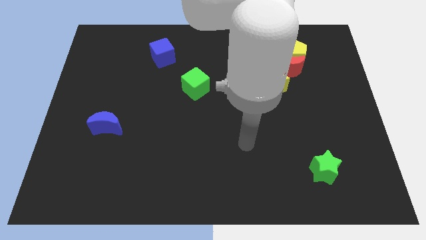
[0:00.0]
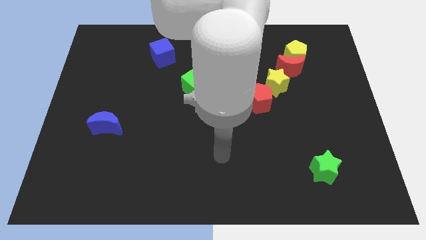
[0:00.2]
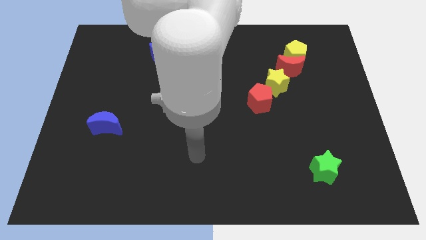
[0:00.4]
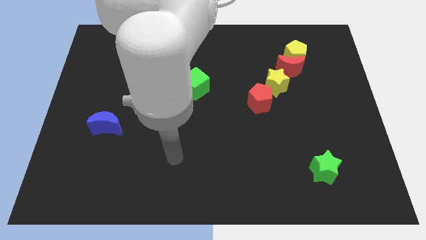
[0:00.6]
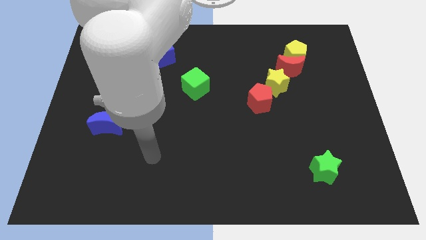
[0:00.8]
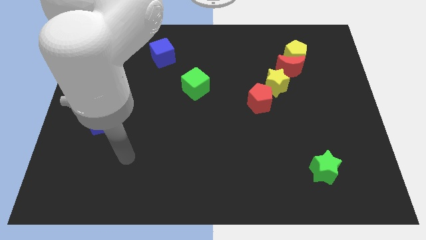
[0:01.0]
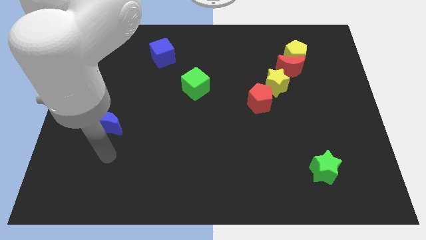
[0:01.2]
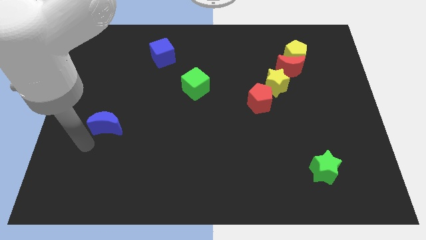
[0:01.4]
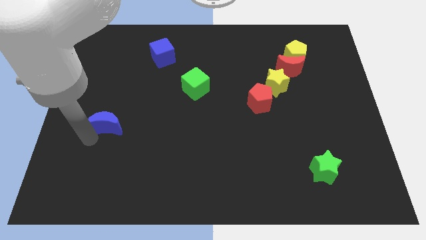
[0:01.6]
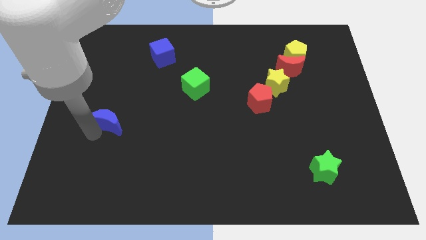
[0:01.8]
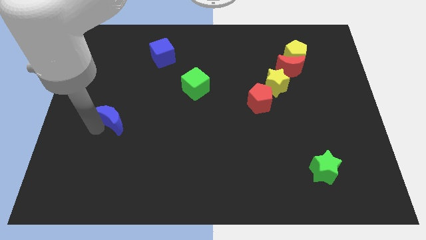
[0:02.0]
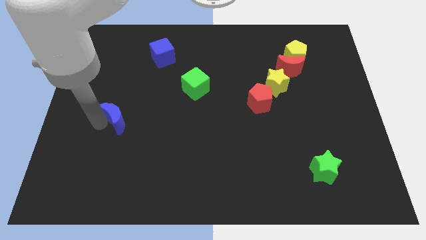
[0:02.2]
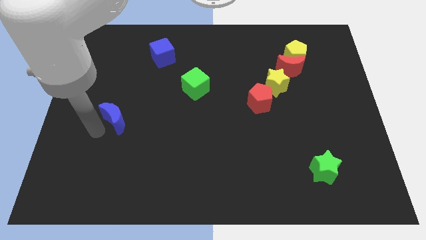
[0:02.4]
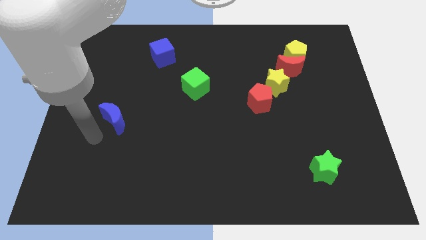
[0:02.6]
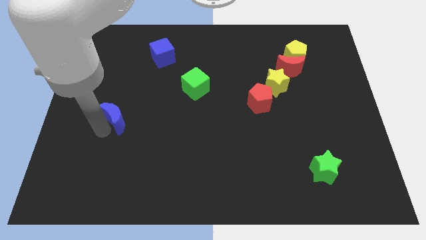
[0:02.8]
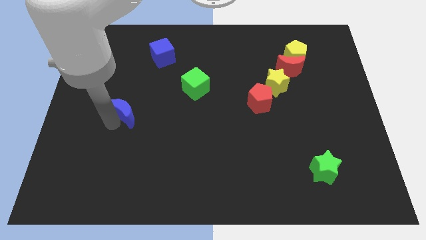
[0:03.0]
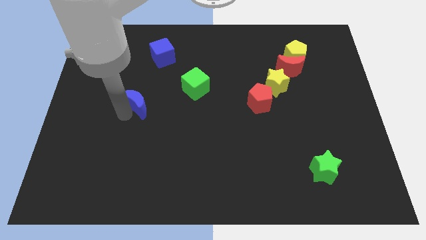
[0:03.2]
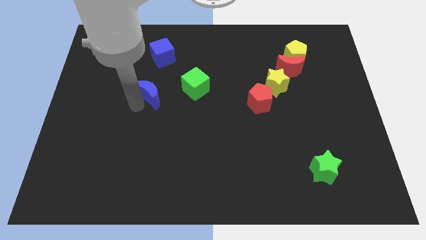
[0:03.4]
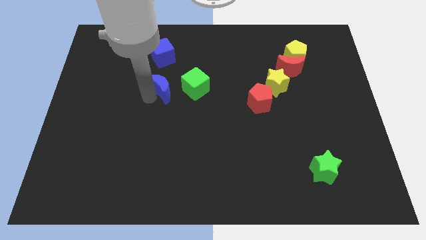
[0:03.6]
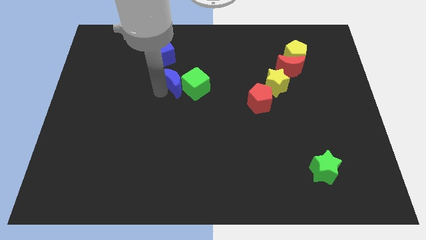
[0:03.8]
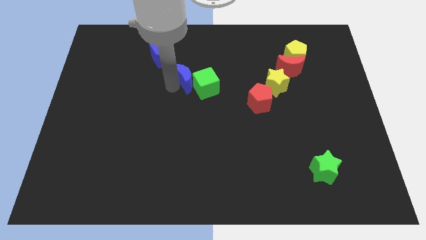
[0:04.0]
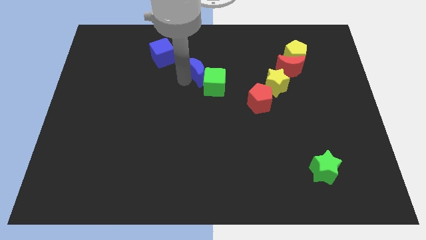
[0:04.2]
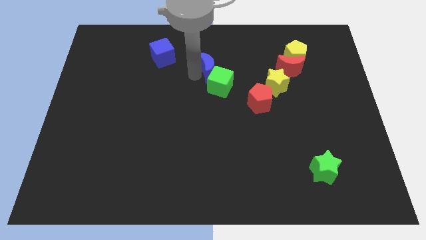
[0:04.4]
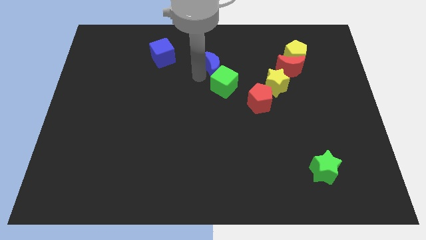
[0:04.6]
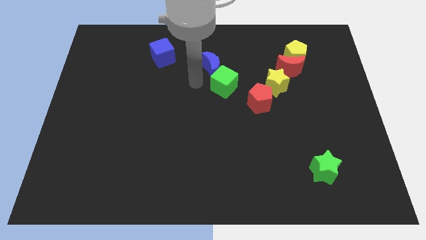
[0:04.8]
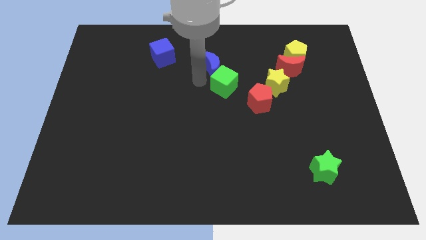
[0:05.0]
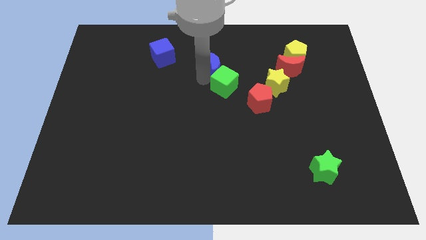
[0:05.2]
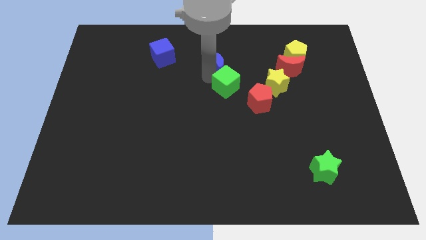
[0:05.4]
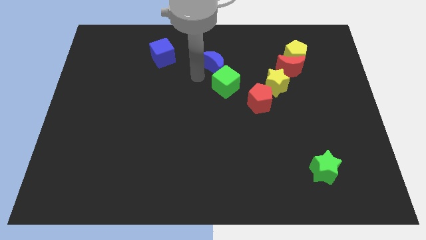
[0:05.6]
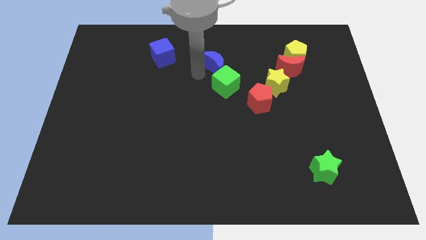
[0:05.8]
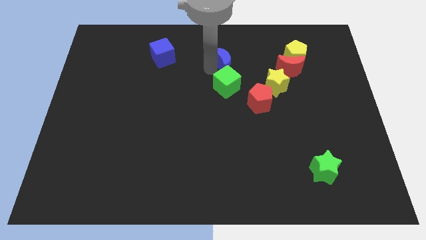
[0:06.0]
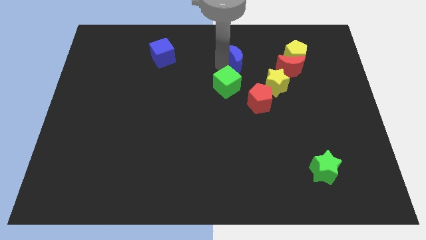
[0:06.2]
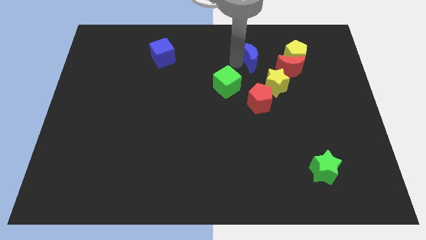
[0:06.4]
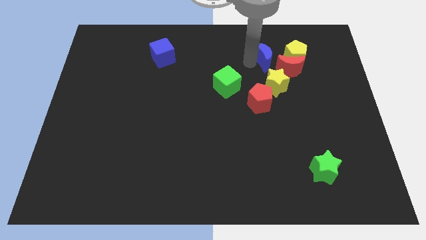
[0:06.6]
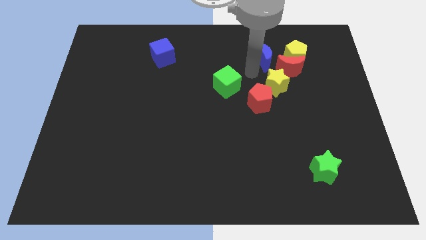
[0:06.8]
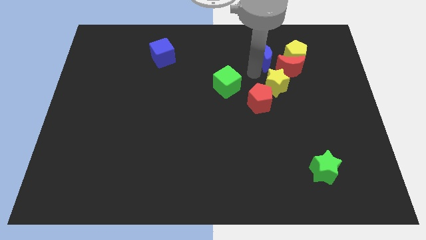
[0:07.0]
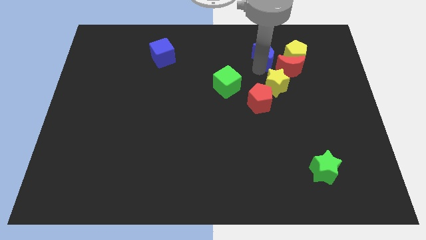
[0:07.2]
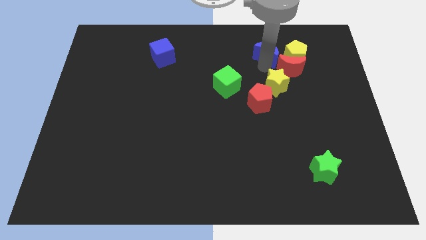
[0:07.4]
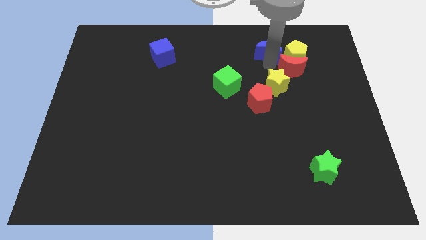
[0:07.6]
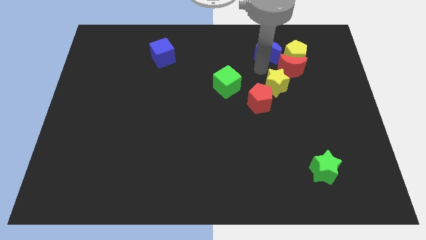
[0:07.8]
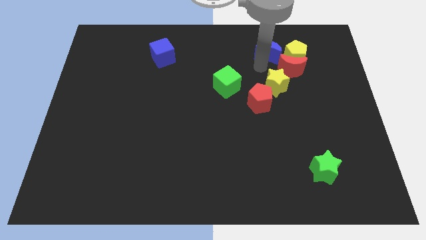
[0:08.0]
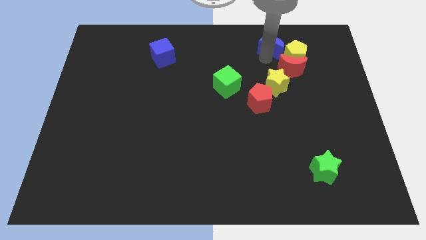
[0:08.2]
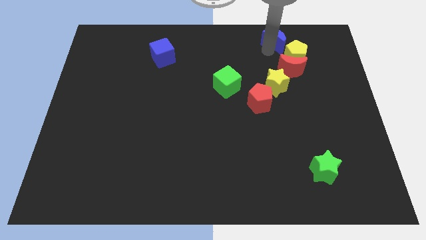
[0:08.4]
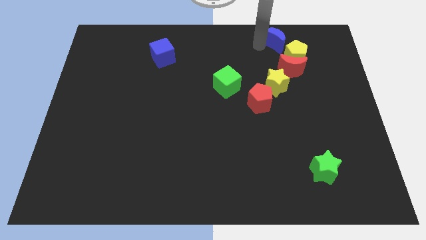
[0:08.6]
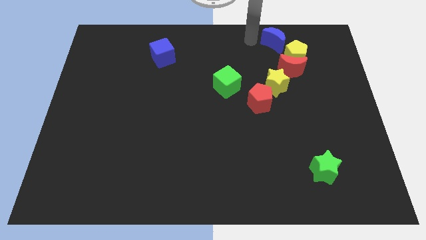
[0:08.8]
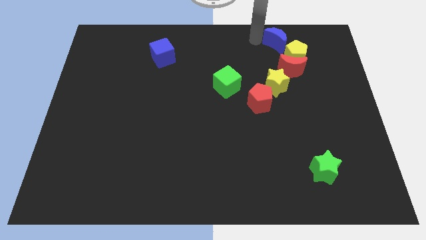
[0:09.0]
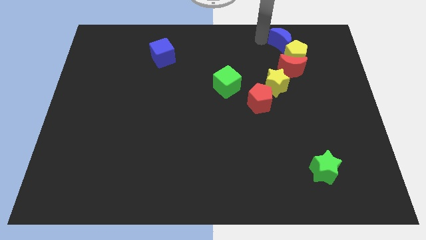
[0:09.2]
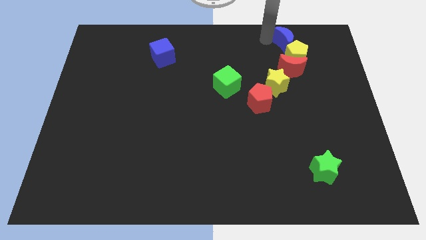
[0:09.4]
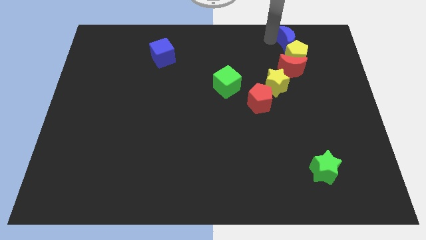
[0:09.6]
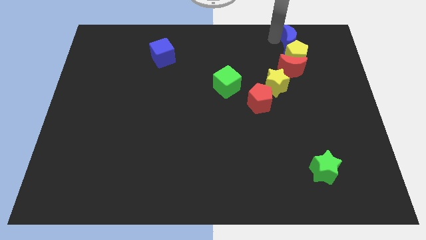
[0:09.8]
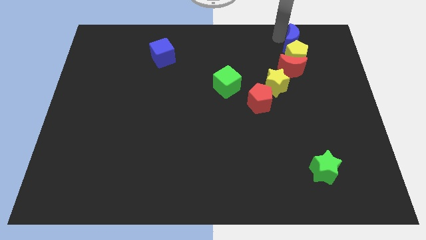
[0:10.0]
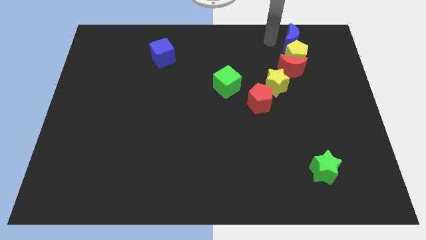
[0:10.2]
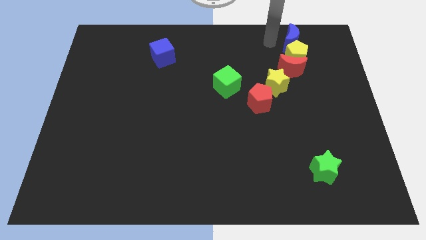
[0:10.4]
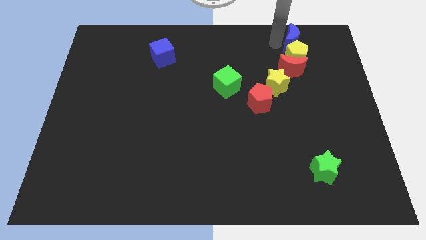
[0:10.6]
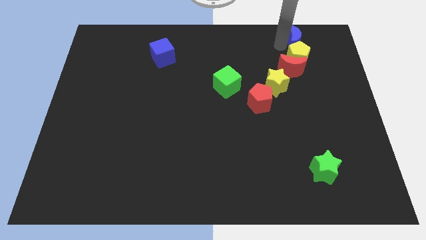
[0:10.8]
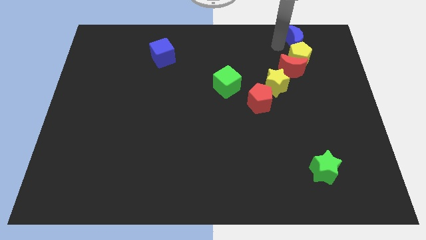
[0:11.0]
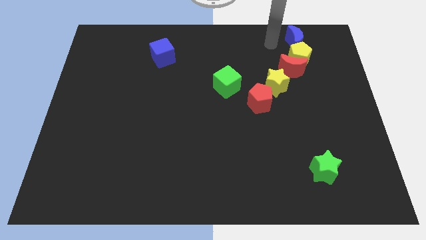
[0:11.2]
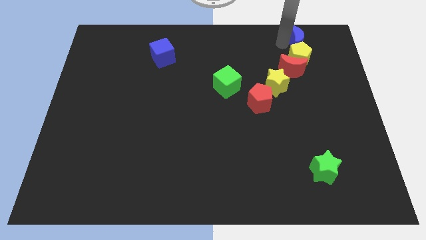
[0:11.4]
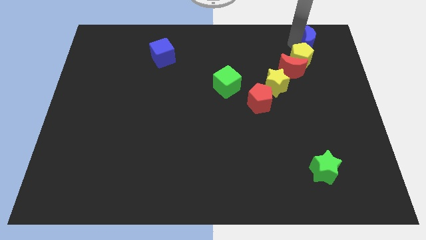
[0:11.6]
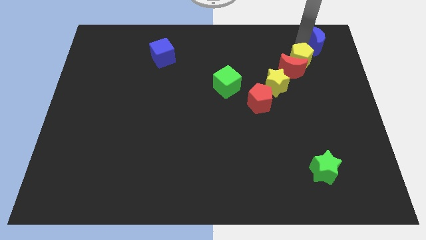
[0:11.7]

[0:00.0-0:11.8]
slide the blue moon to the top right corner

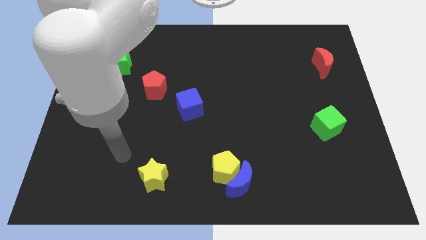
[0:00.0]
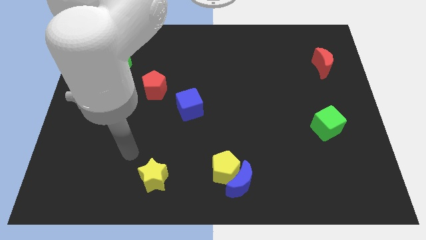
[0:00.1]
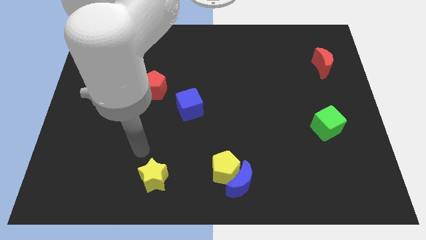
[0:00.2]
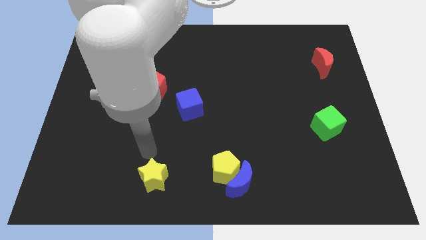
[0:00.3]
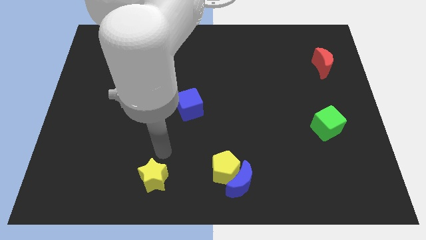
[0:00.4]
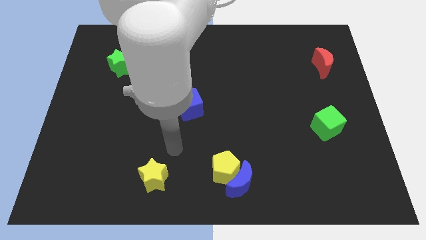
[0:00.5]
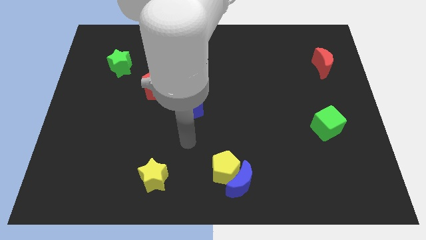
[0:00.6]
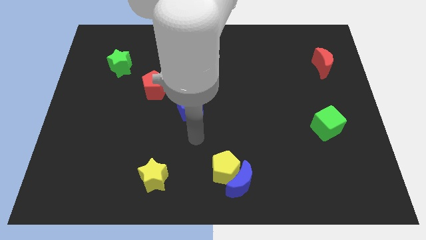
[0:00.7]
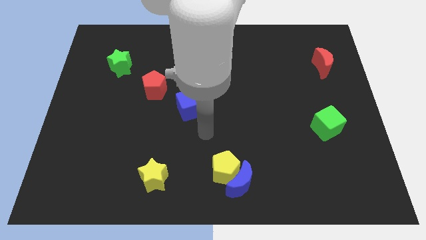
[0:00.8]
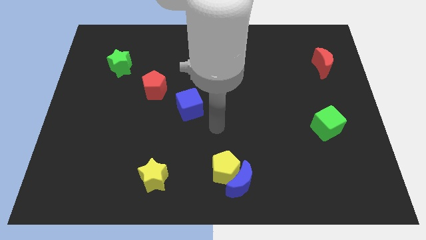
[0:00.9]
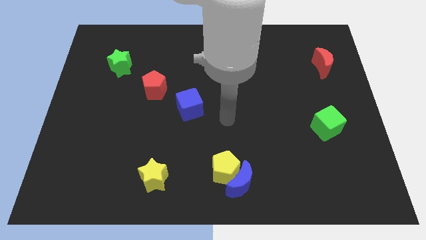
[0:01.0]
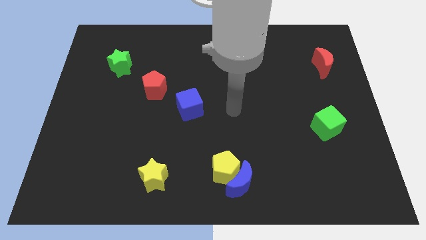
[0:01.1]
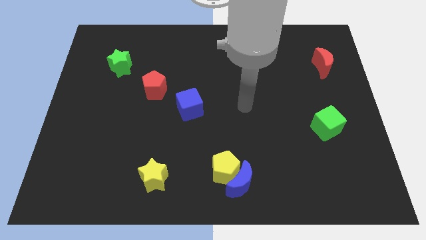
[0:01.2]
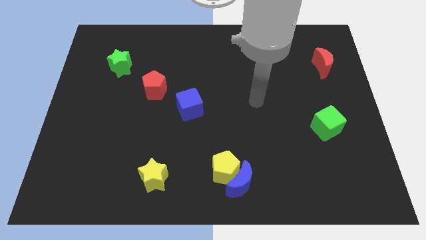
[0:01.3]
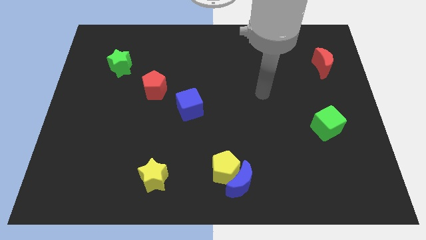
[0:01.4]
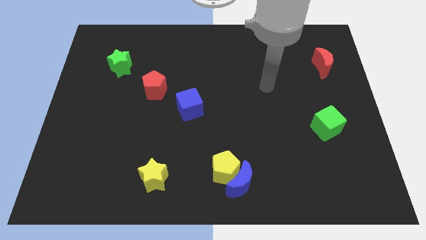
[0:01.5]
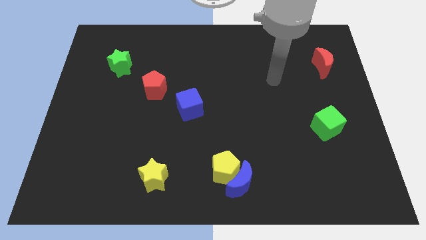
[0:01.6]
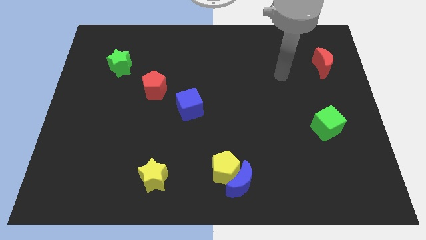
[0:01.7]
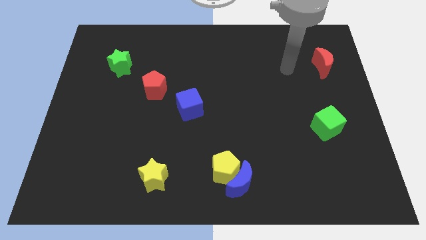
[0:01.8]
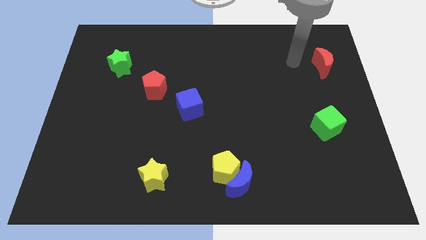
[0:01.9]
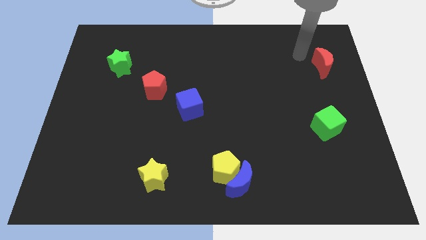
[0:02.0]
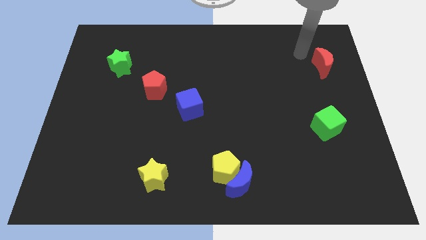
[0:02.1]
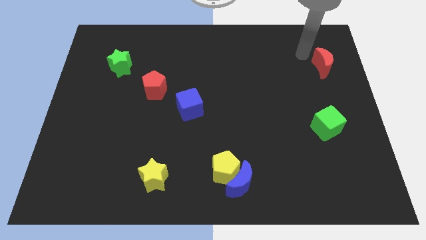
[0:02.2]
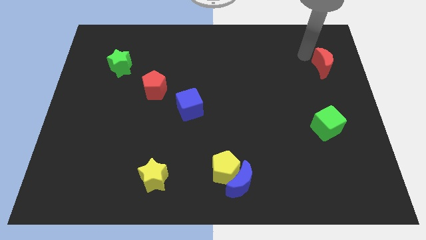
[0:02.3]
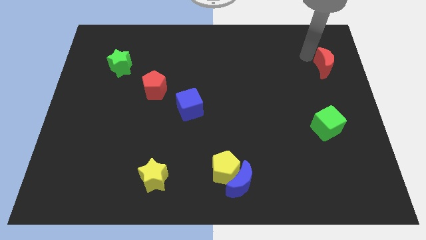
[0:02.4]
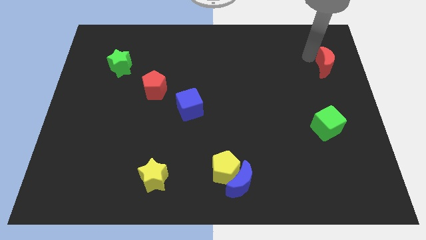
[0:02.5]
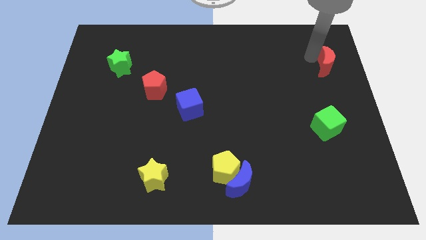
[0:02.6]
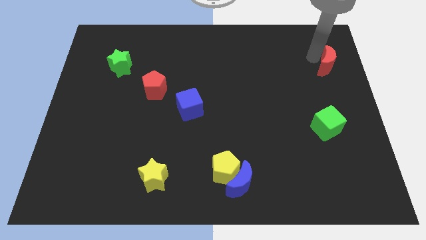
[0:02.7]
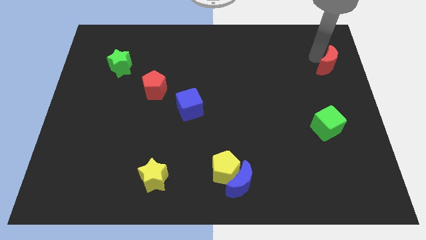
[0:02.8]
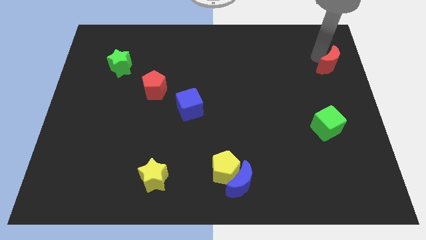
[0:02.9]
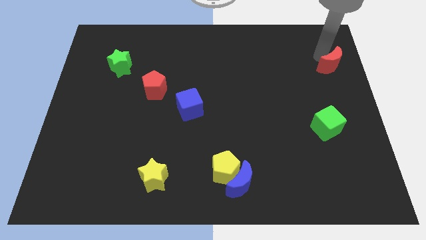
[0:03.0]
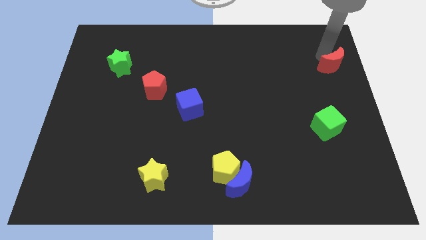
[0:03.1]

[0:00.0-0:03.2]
slide the red moon to the right side of the board
